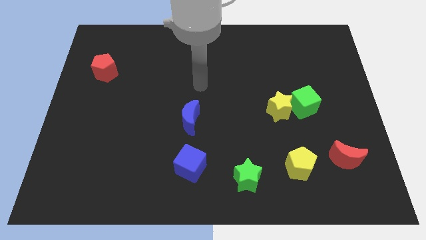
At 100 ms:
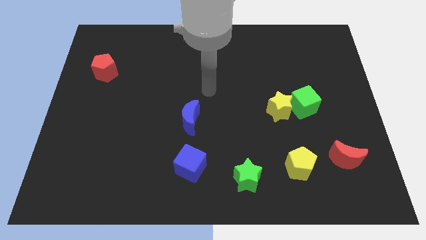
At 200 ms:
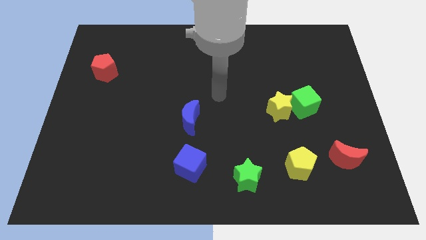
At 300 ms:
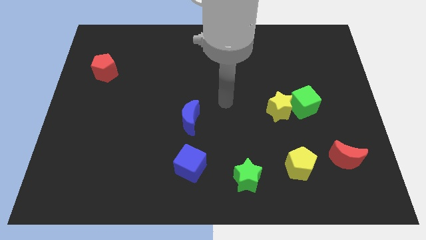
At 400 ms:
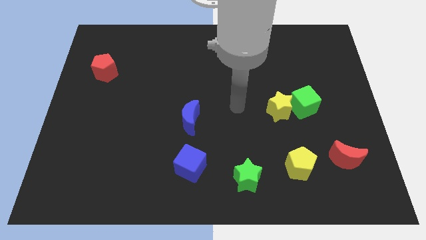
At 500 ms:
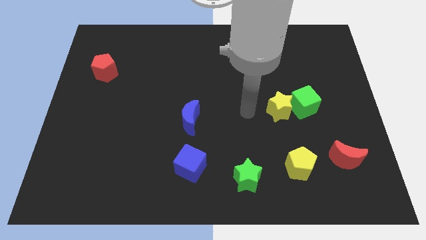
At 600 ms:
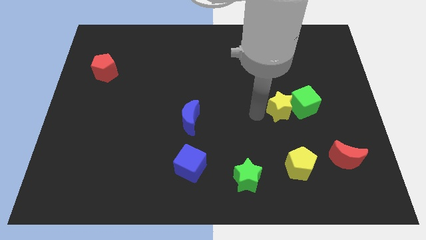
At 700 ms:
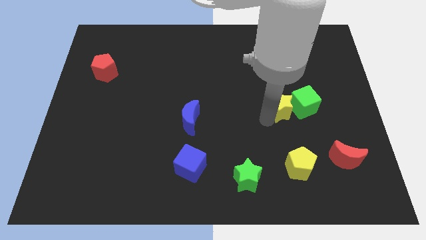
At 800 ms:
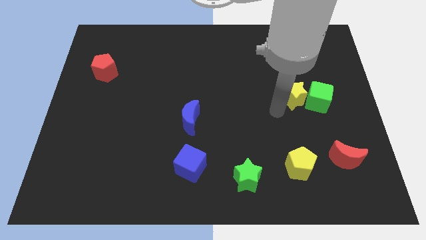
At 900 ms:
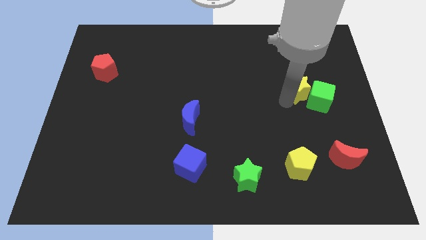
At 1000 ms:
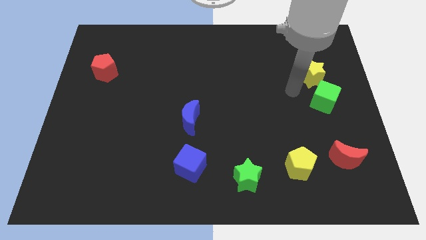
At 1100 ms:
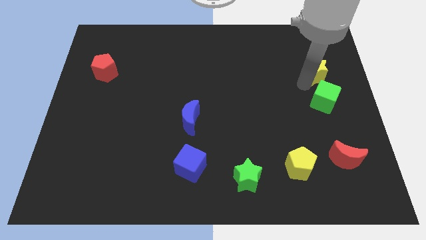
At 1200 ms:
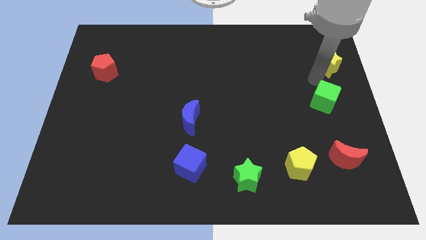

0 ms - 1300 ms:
move the green cube away from the yellow star

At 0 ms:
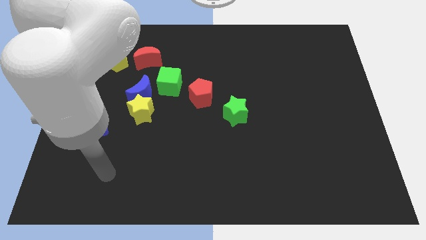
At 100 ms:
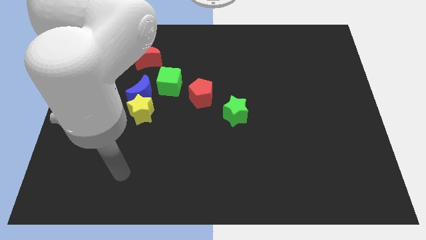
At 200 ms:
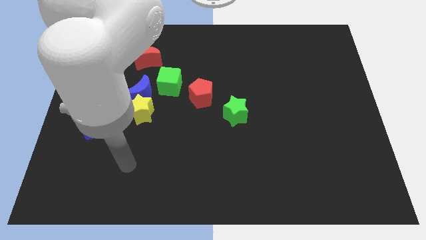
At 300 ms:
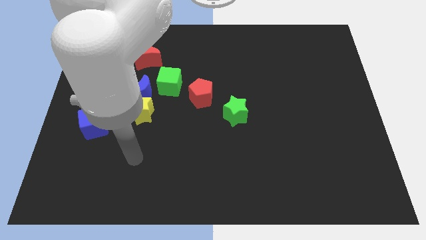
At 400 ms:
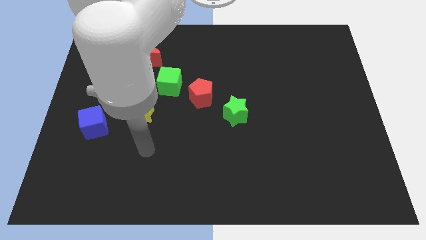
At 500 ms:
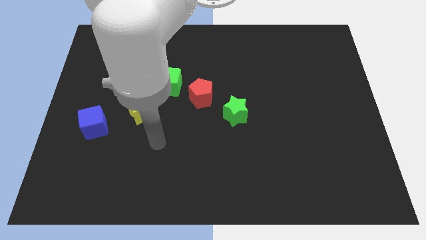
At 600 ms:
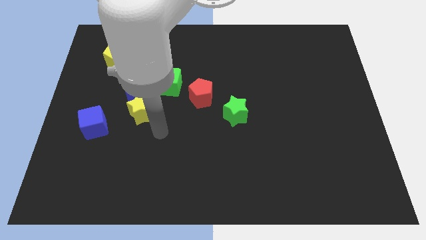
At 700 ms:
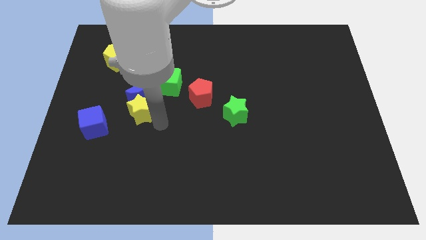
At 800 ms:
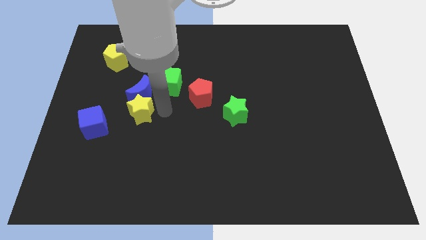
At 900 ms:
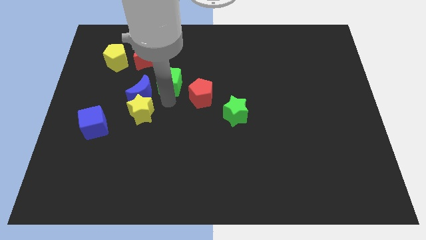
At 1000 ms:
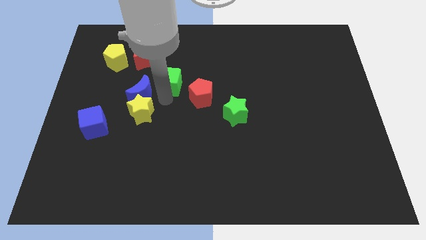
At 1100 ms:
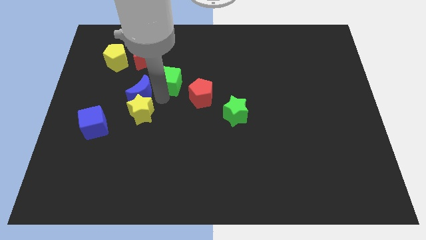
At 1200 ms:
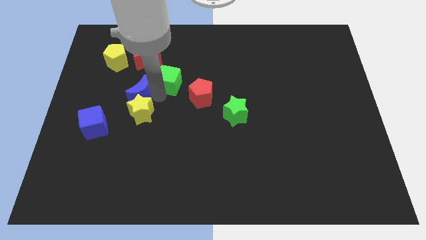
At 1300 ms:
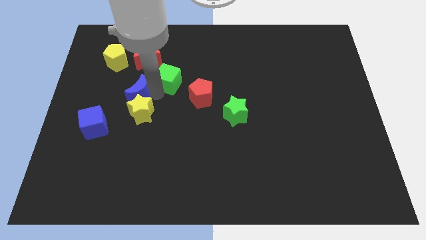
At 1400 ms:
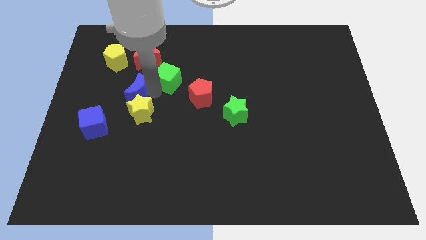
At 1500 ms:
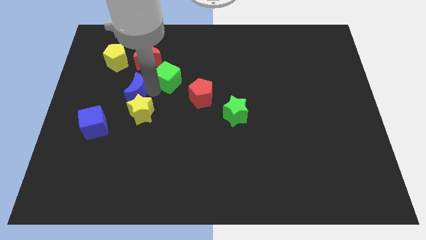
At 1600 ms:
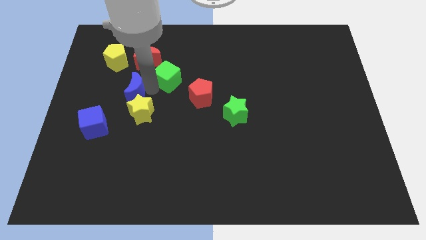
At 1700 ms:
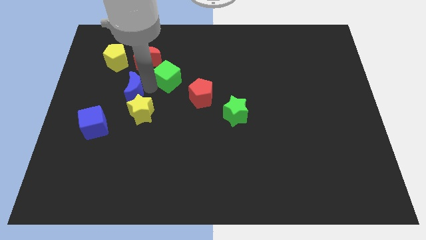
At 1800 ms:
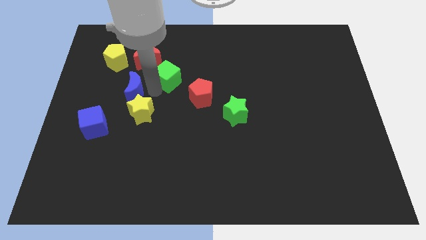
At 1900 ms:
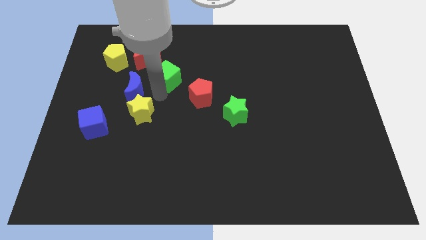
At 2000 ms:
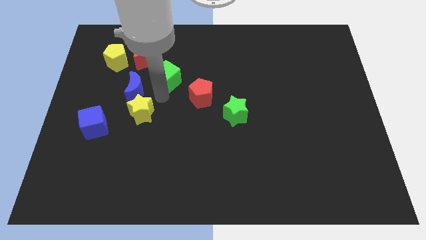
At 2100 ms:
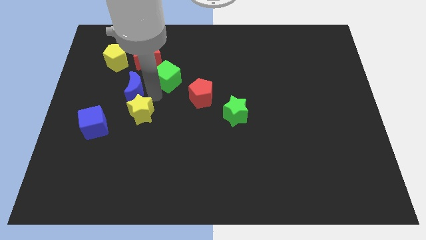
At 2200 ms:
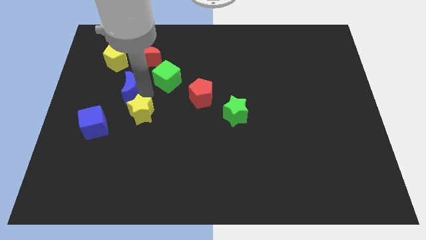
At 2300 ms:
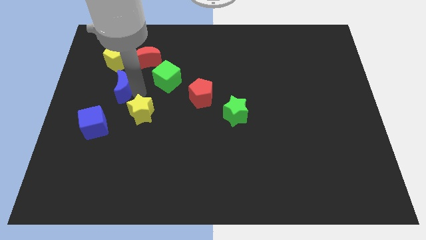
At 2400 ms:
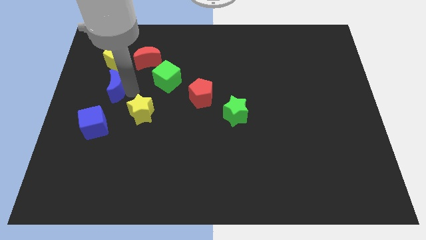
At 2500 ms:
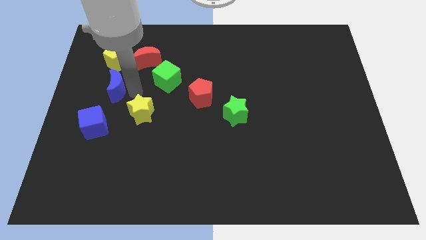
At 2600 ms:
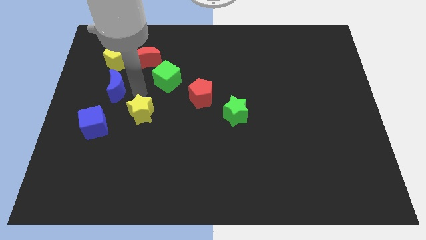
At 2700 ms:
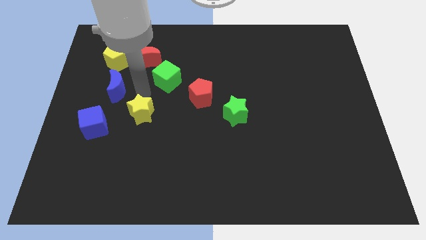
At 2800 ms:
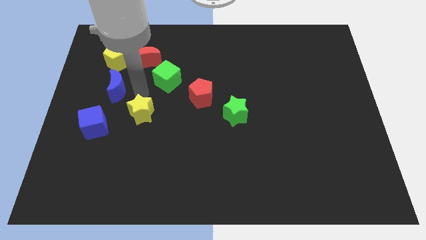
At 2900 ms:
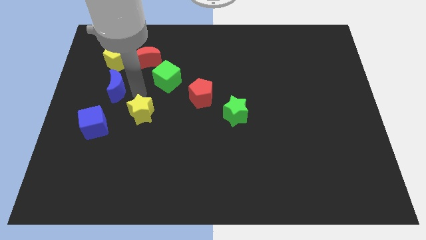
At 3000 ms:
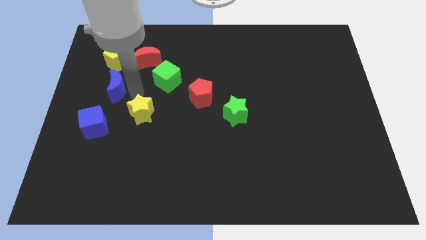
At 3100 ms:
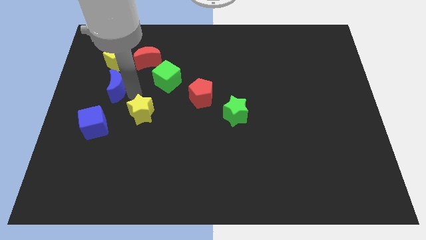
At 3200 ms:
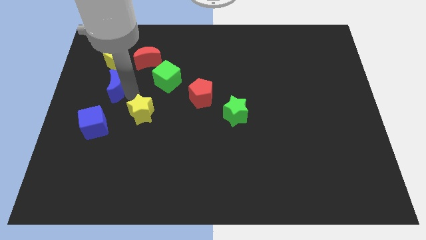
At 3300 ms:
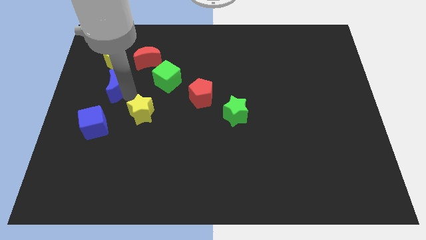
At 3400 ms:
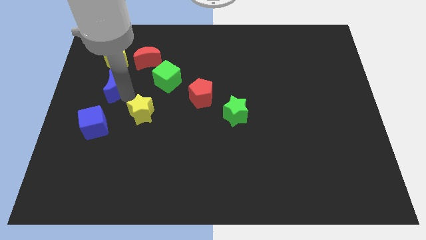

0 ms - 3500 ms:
move the blue moon away from the yellow star and green cube

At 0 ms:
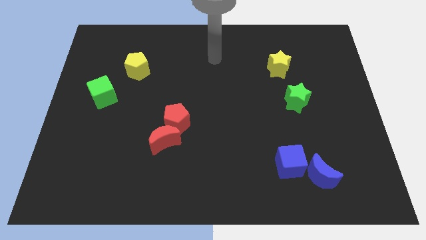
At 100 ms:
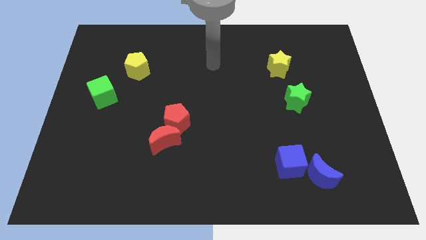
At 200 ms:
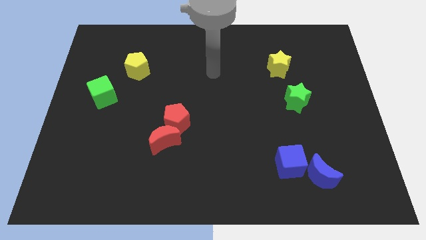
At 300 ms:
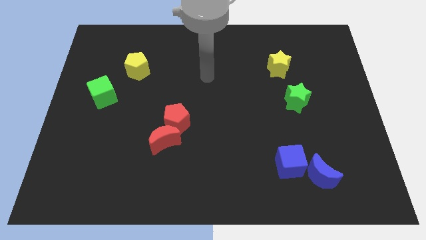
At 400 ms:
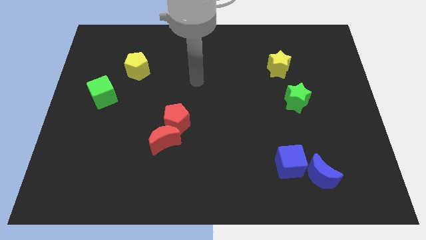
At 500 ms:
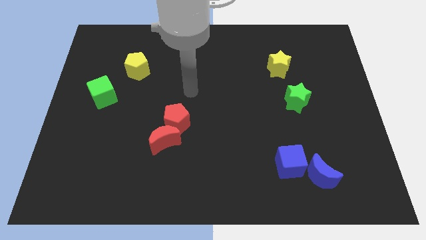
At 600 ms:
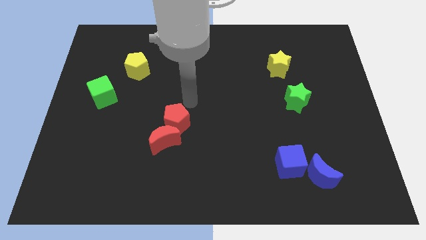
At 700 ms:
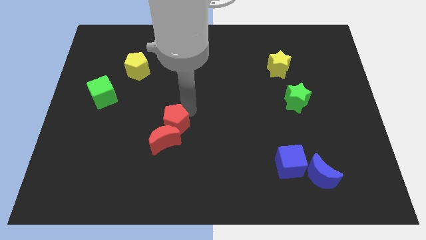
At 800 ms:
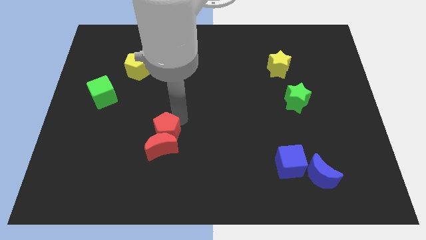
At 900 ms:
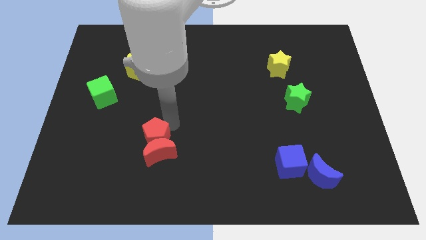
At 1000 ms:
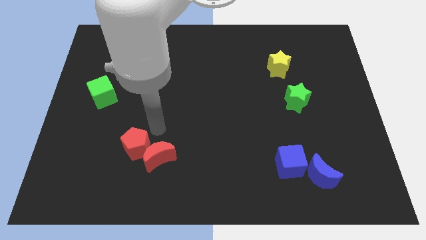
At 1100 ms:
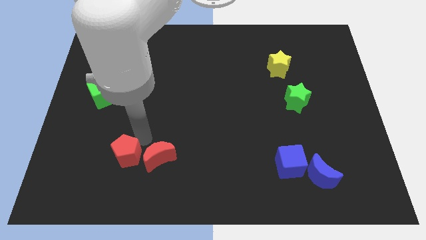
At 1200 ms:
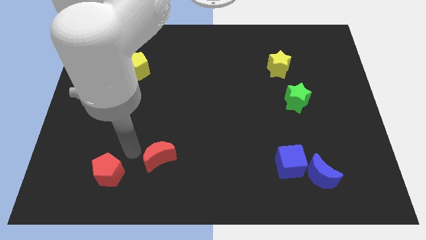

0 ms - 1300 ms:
pull the red moon apart from the red pentagon

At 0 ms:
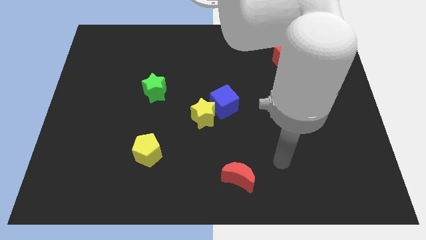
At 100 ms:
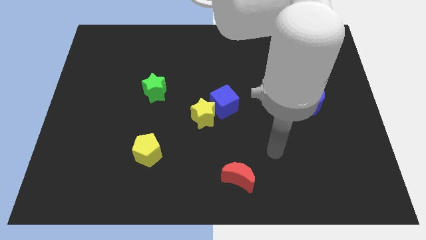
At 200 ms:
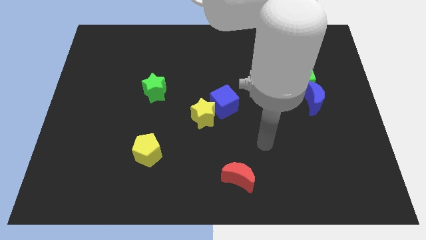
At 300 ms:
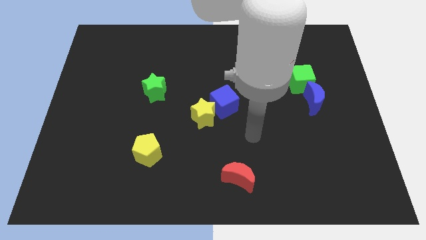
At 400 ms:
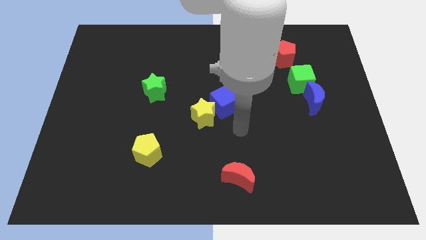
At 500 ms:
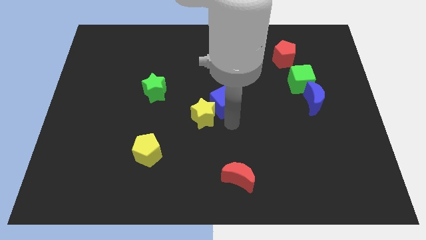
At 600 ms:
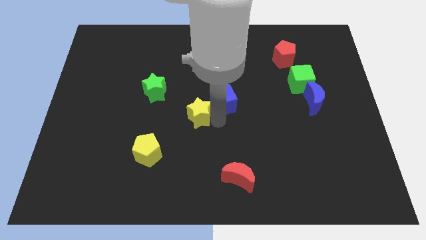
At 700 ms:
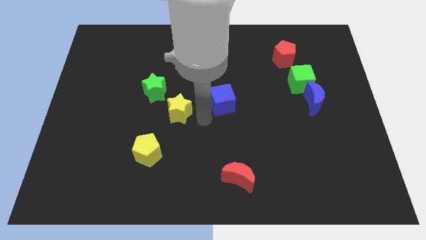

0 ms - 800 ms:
separate the blue cube from the yellow star

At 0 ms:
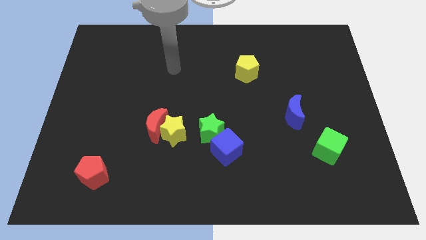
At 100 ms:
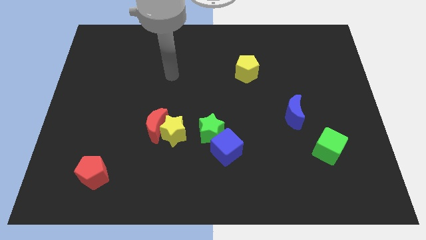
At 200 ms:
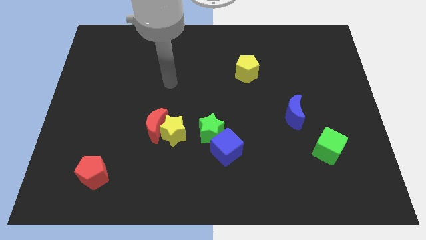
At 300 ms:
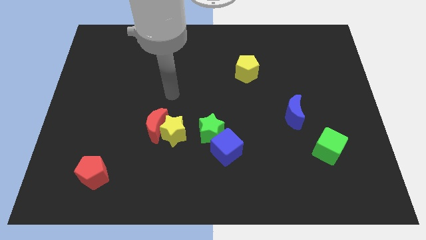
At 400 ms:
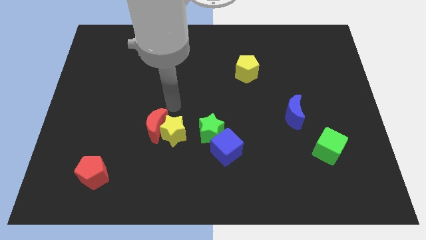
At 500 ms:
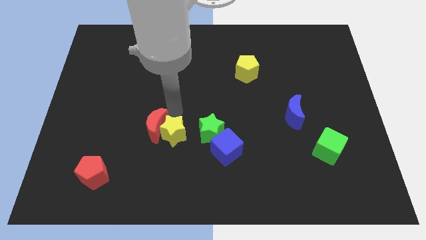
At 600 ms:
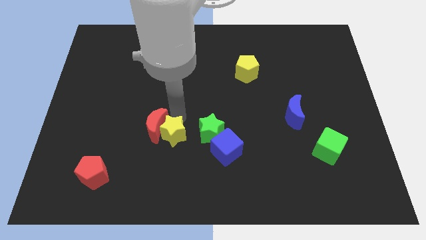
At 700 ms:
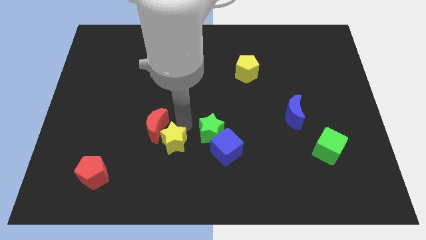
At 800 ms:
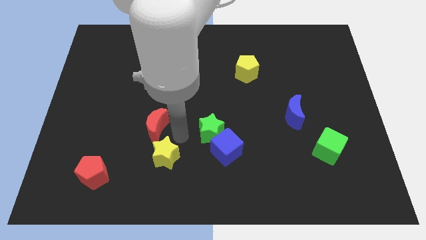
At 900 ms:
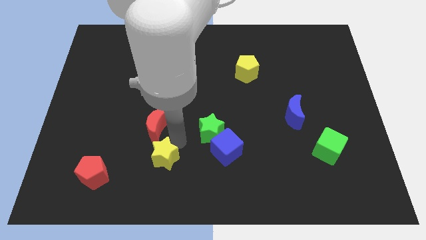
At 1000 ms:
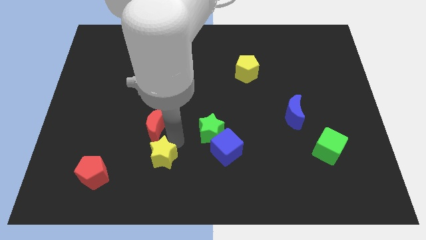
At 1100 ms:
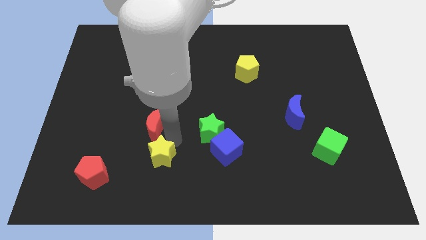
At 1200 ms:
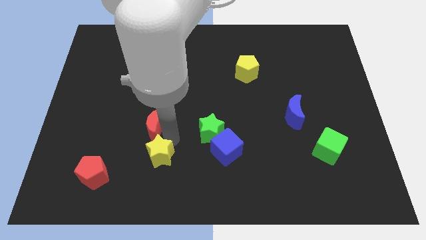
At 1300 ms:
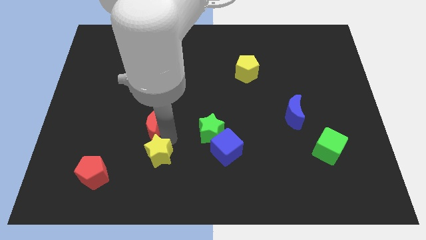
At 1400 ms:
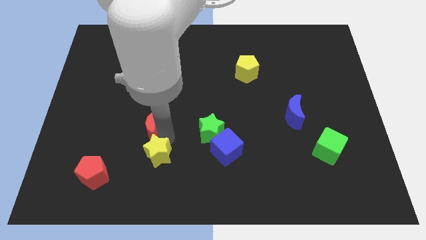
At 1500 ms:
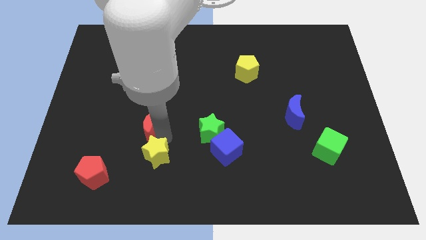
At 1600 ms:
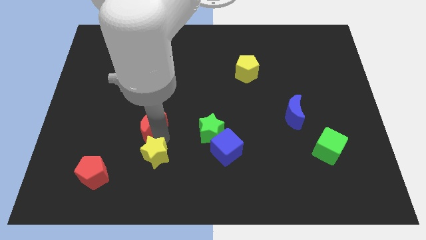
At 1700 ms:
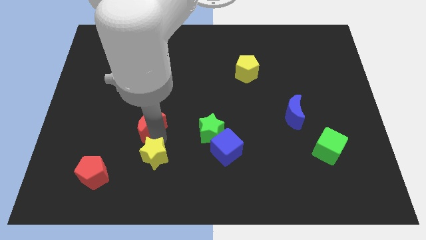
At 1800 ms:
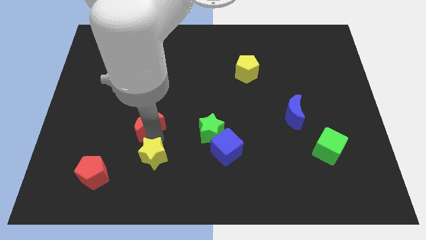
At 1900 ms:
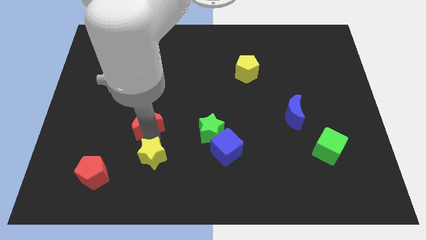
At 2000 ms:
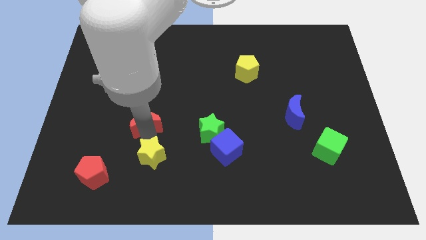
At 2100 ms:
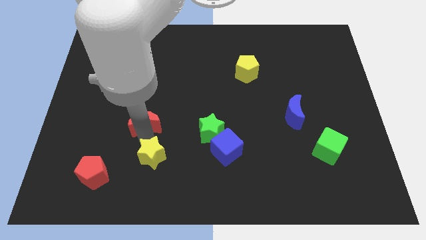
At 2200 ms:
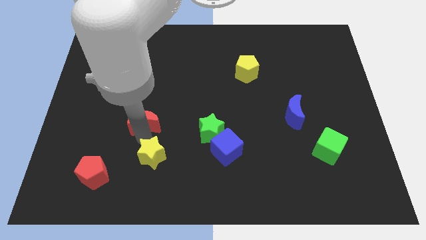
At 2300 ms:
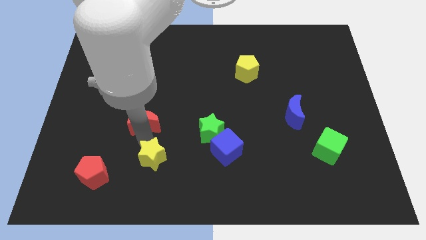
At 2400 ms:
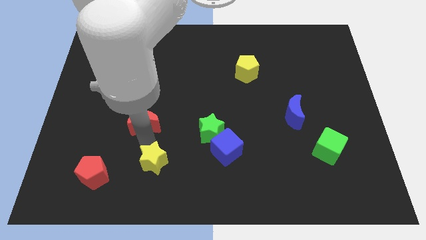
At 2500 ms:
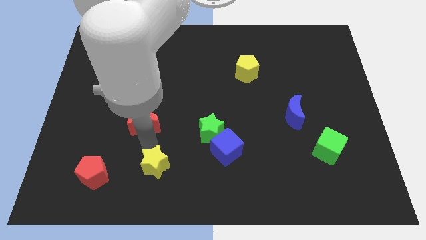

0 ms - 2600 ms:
move the red moon away from the yellow star
